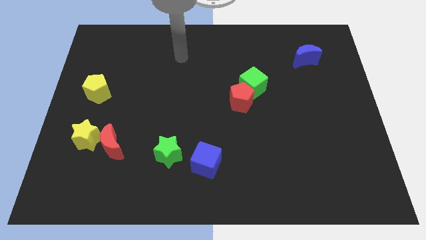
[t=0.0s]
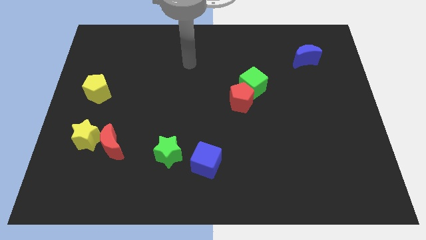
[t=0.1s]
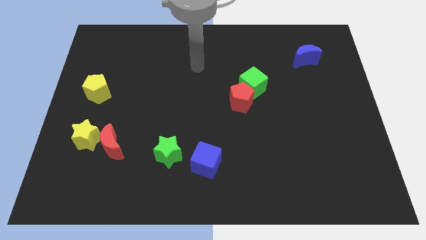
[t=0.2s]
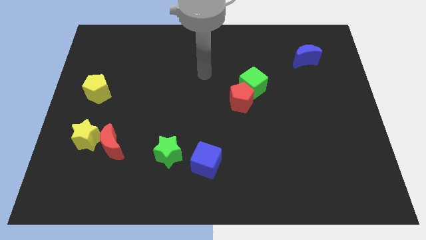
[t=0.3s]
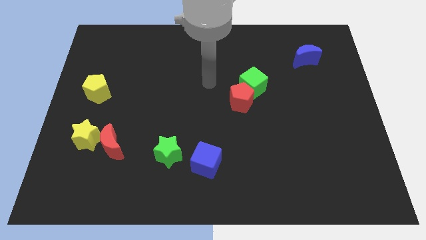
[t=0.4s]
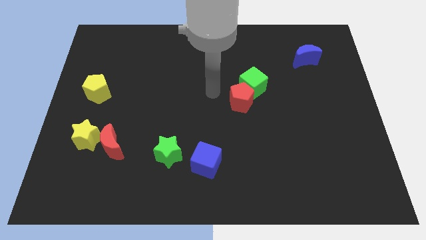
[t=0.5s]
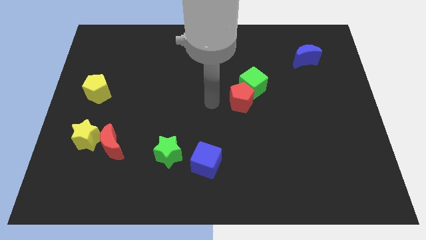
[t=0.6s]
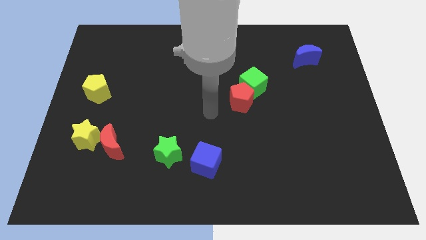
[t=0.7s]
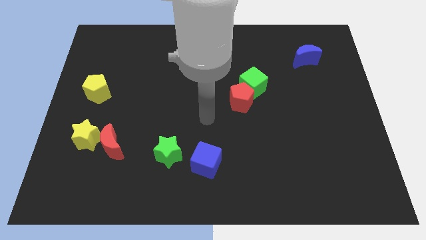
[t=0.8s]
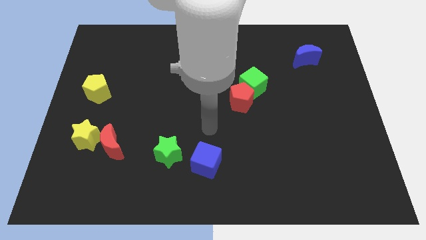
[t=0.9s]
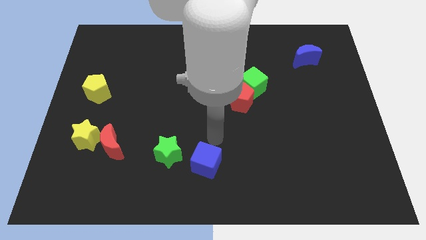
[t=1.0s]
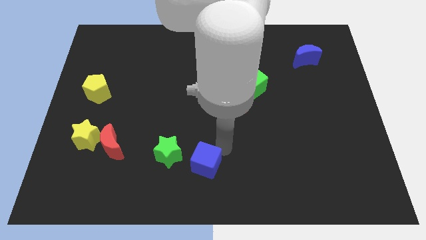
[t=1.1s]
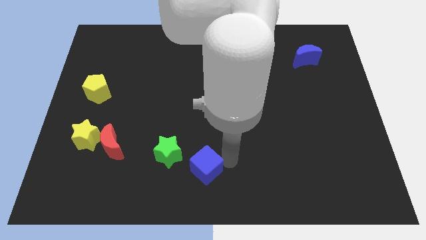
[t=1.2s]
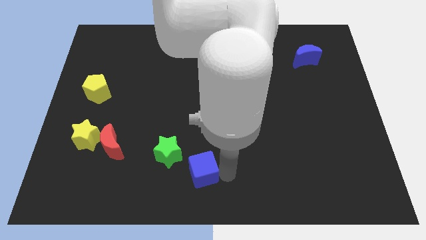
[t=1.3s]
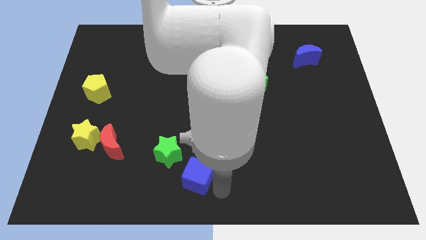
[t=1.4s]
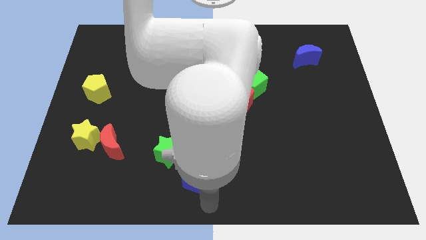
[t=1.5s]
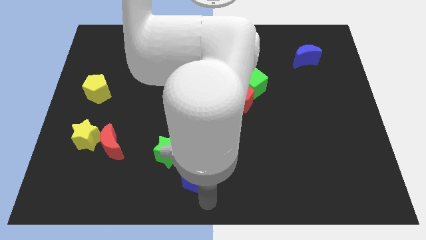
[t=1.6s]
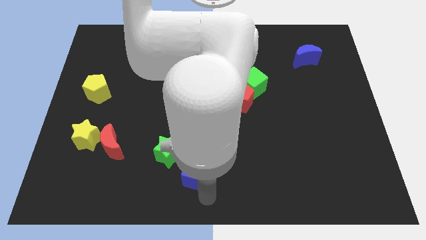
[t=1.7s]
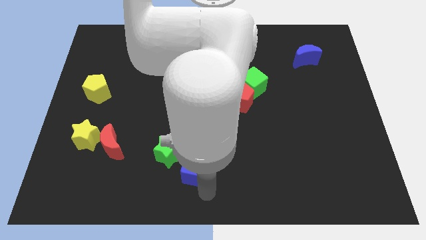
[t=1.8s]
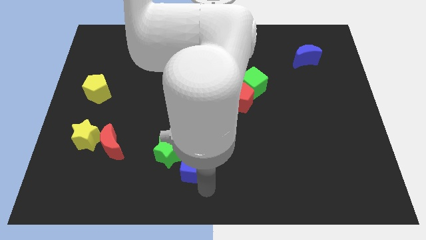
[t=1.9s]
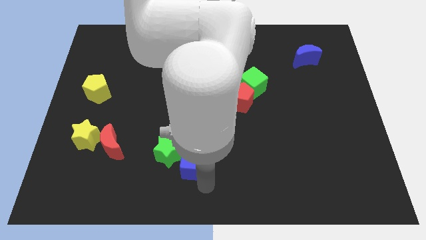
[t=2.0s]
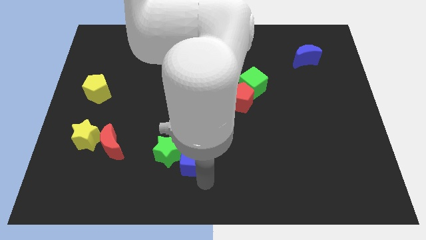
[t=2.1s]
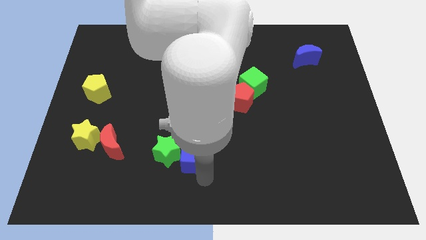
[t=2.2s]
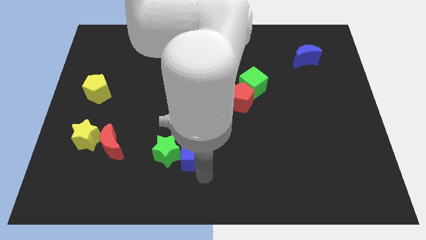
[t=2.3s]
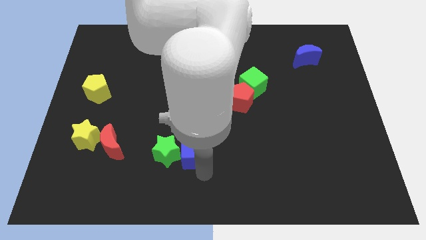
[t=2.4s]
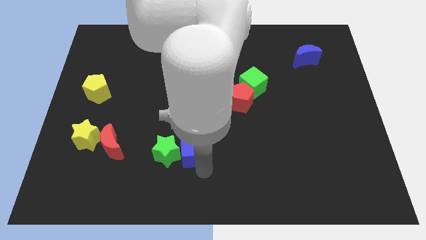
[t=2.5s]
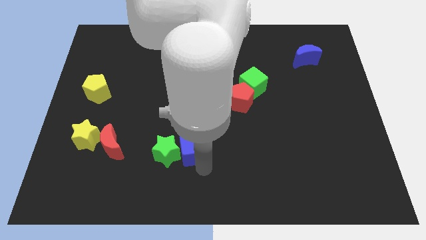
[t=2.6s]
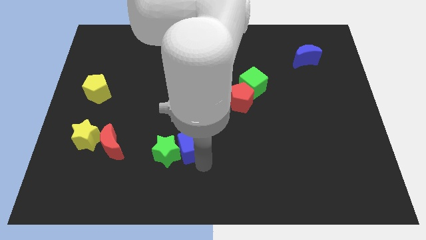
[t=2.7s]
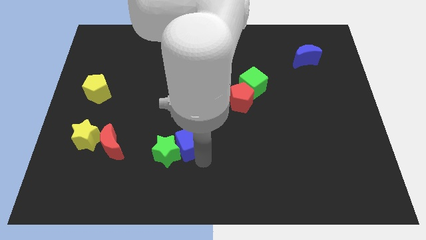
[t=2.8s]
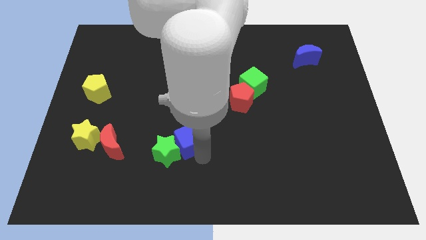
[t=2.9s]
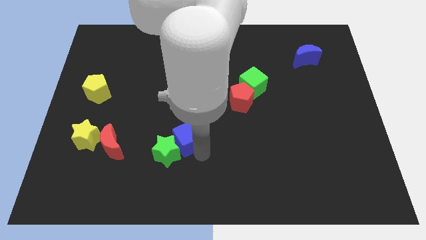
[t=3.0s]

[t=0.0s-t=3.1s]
slide the blue cube diagonally upwards and to the left a bit

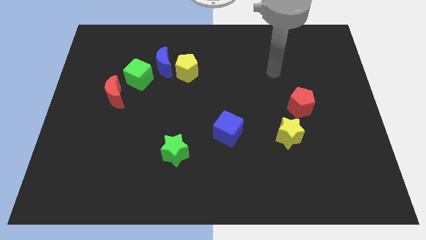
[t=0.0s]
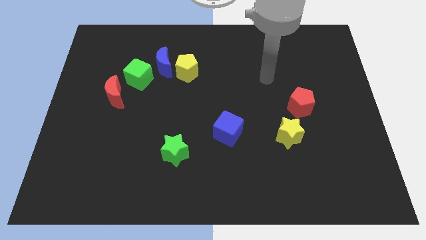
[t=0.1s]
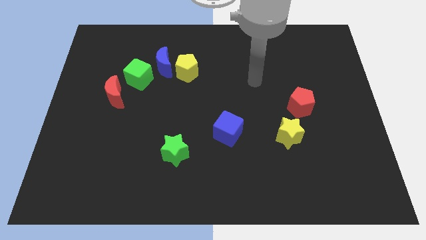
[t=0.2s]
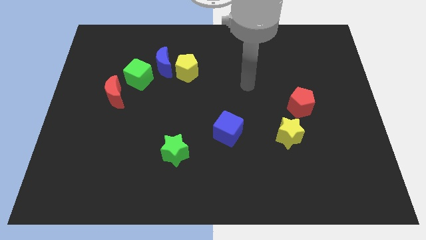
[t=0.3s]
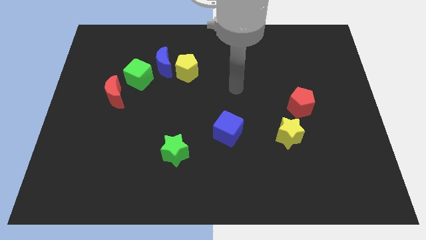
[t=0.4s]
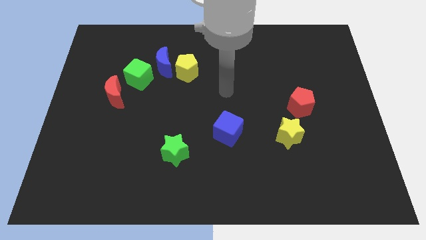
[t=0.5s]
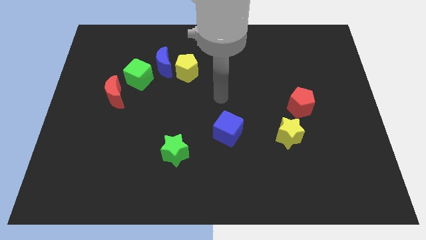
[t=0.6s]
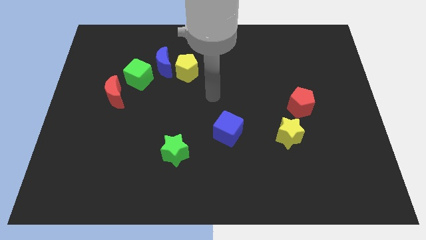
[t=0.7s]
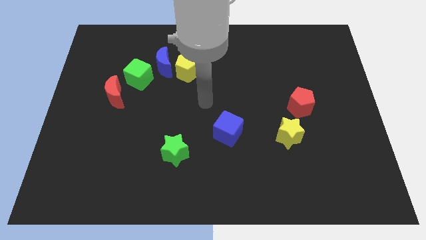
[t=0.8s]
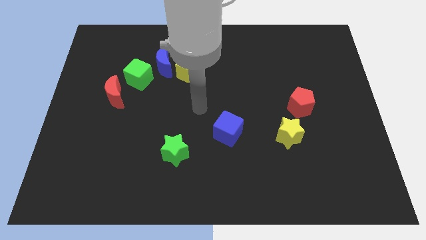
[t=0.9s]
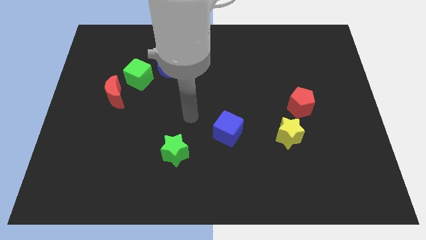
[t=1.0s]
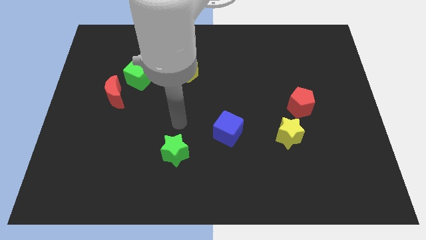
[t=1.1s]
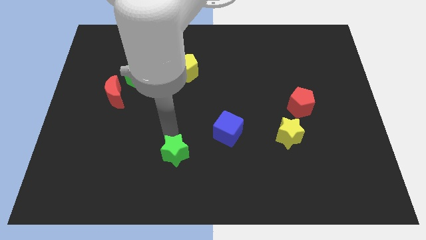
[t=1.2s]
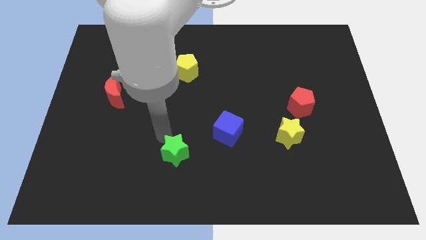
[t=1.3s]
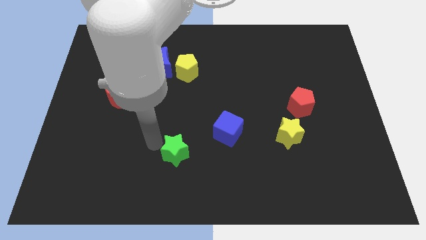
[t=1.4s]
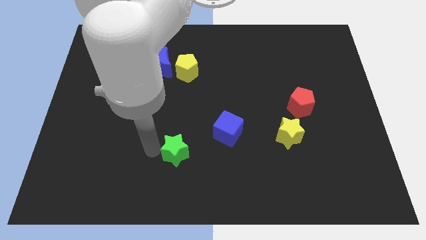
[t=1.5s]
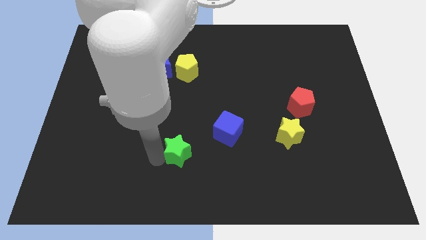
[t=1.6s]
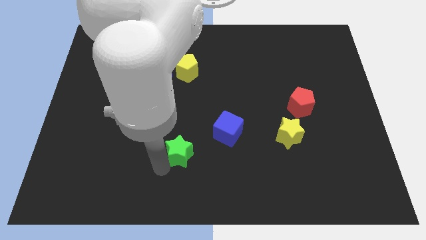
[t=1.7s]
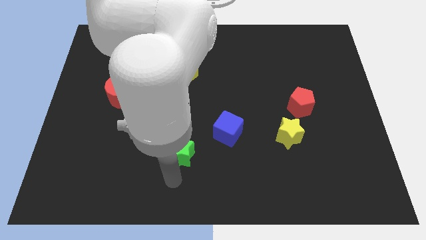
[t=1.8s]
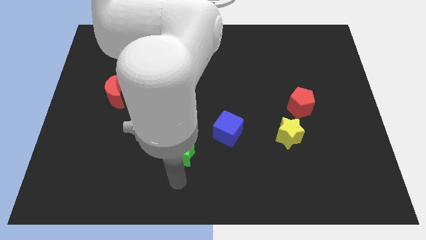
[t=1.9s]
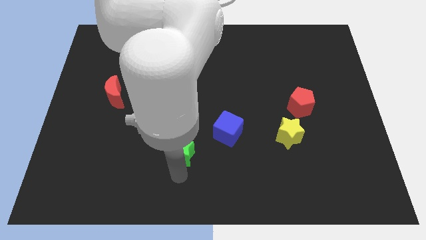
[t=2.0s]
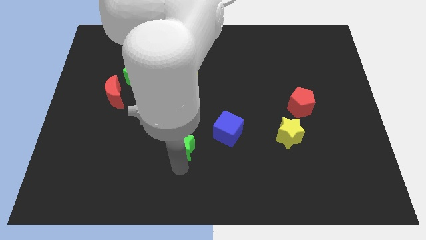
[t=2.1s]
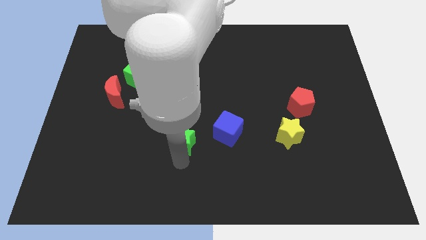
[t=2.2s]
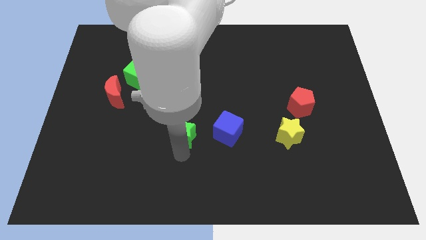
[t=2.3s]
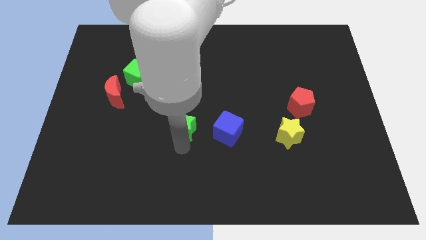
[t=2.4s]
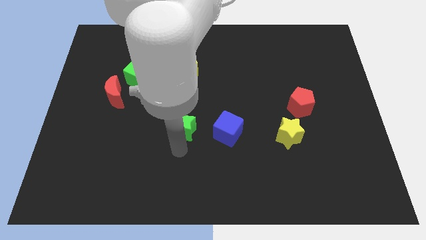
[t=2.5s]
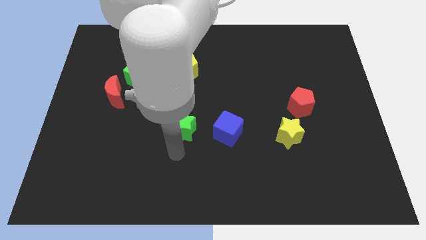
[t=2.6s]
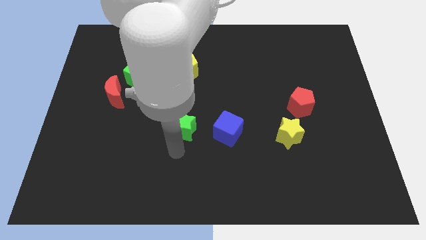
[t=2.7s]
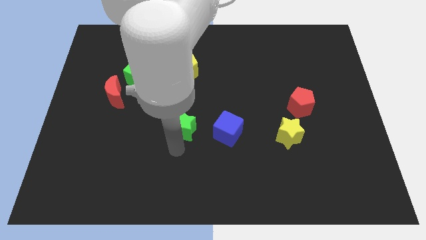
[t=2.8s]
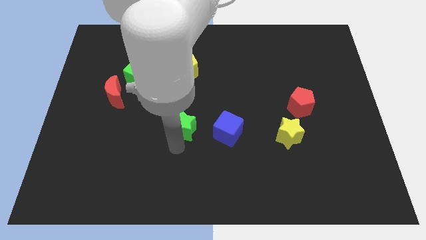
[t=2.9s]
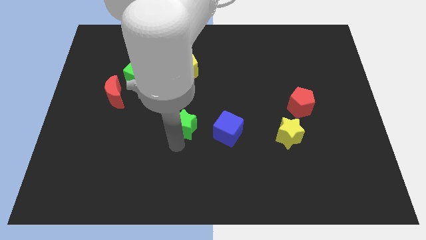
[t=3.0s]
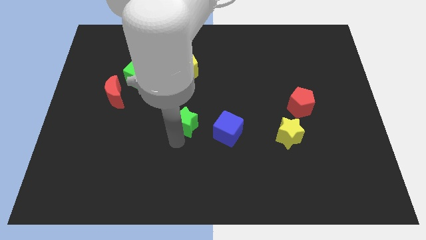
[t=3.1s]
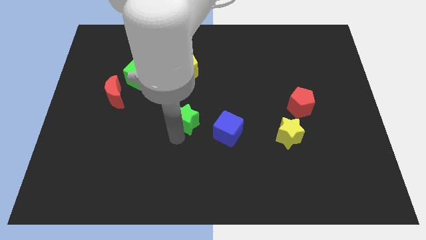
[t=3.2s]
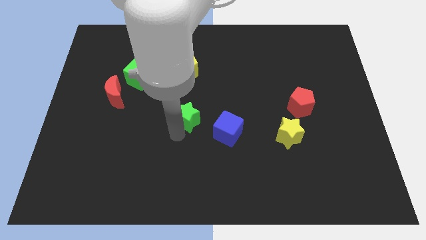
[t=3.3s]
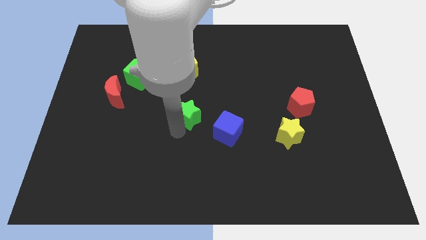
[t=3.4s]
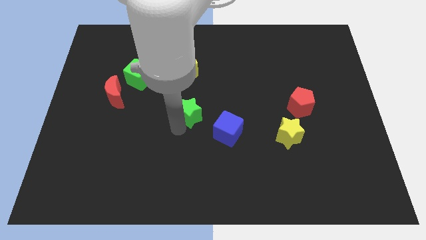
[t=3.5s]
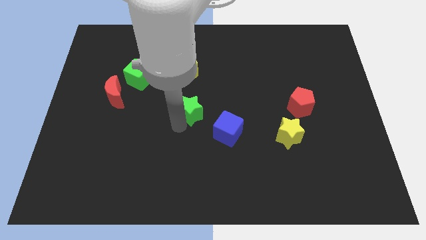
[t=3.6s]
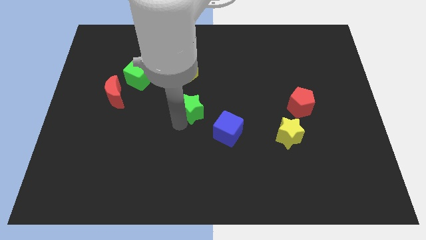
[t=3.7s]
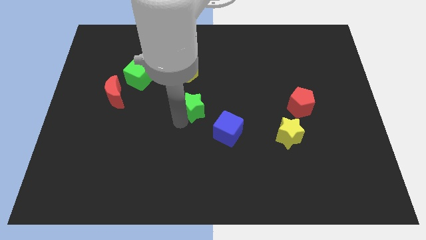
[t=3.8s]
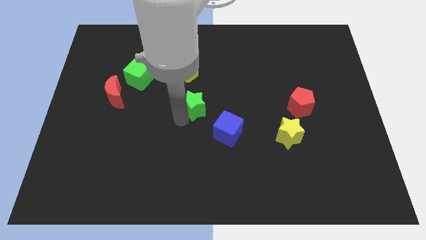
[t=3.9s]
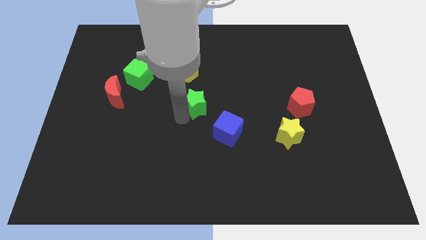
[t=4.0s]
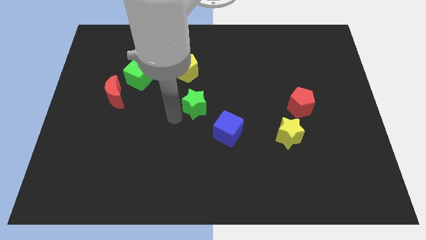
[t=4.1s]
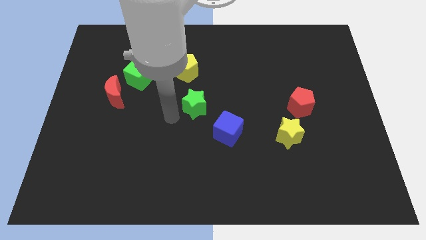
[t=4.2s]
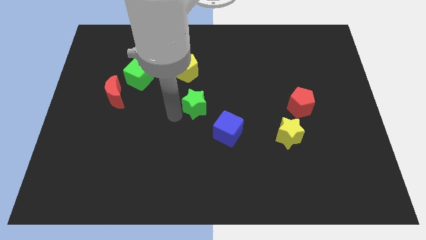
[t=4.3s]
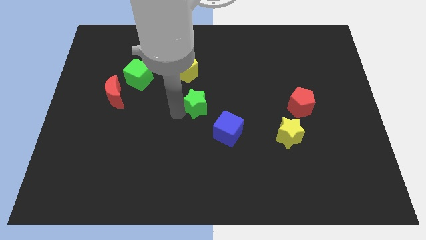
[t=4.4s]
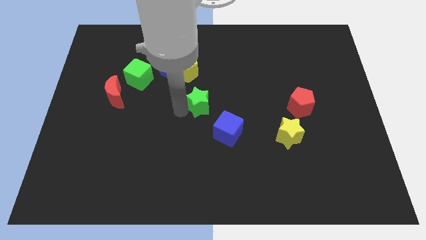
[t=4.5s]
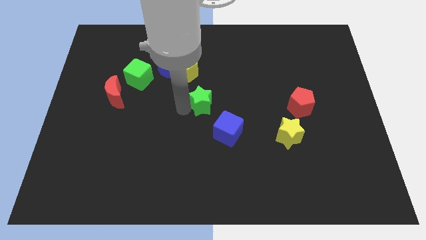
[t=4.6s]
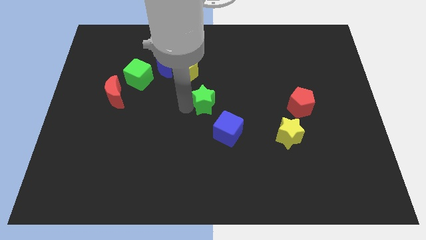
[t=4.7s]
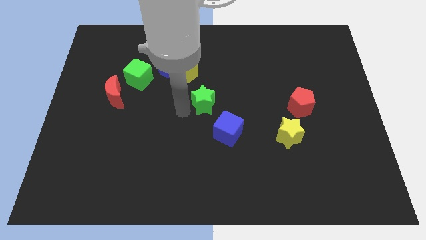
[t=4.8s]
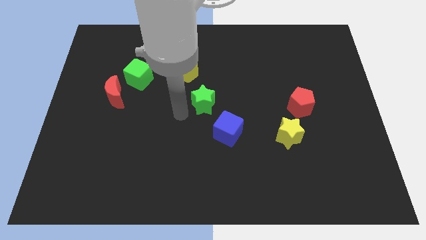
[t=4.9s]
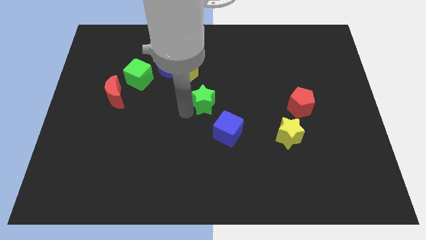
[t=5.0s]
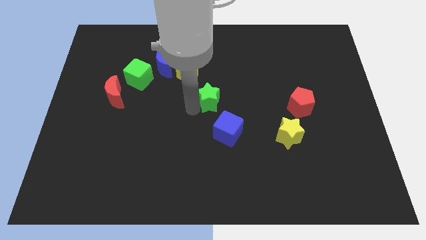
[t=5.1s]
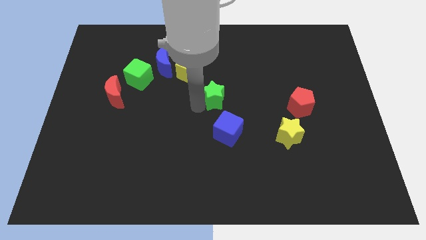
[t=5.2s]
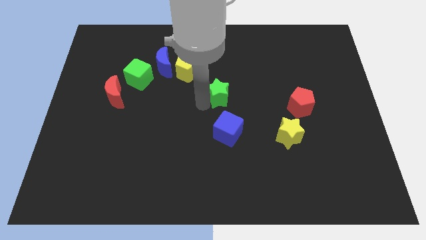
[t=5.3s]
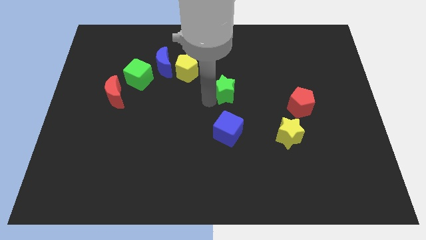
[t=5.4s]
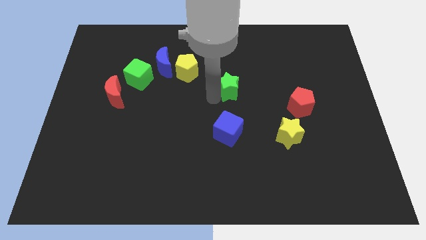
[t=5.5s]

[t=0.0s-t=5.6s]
push the green star upwards and right diagonally
